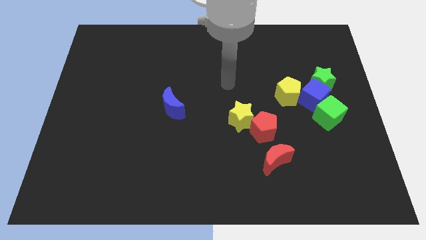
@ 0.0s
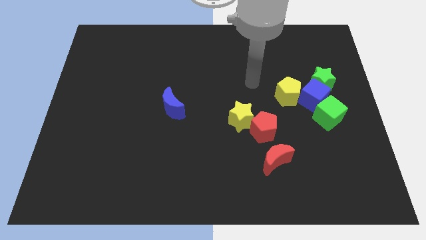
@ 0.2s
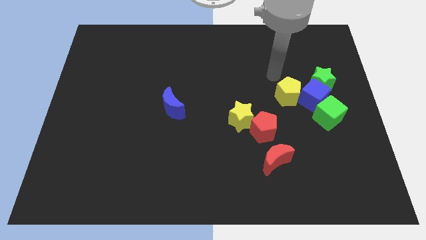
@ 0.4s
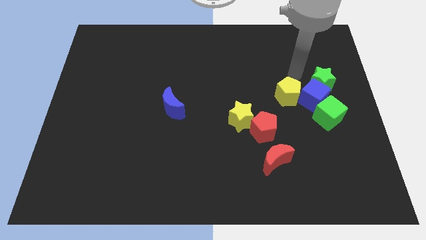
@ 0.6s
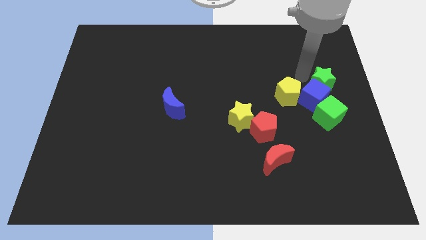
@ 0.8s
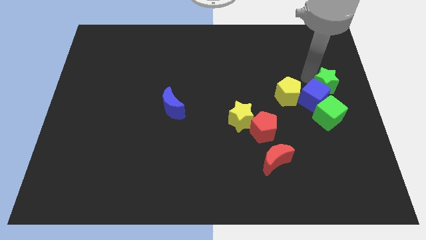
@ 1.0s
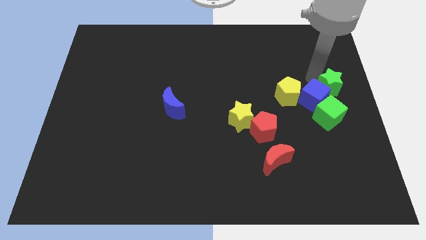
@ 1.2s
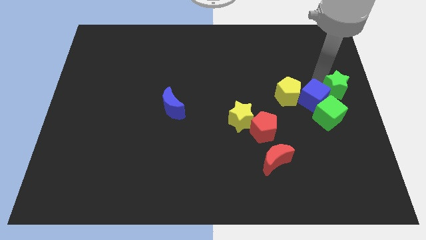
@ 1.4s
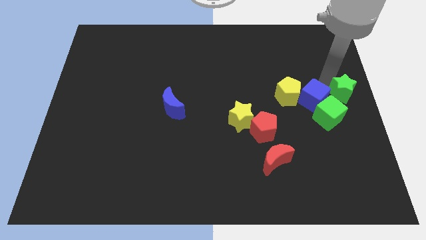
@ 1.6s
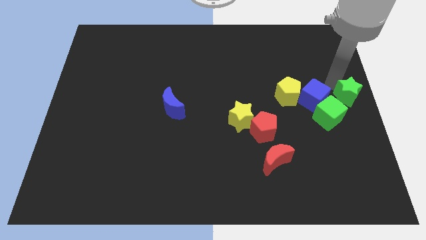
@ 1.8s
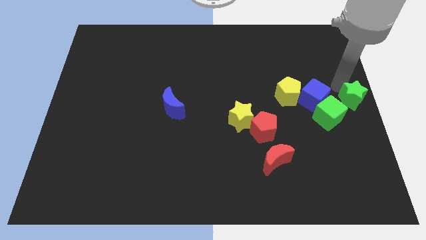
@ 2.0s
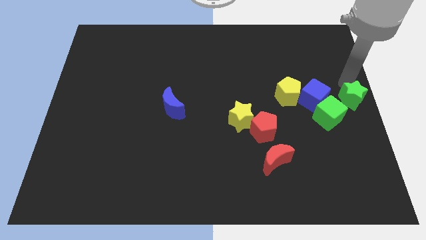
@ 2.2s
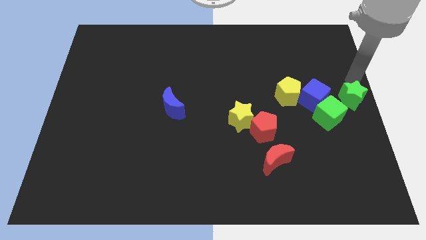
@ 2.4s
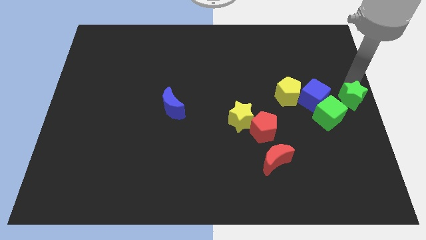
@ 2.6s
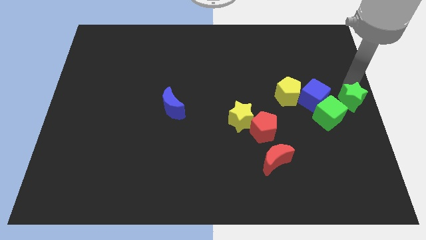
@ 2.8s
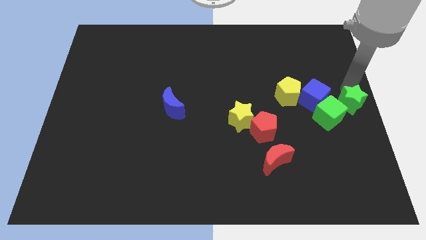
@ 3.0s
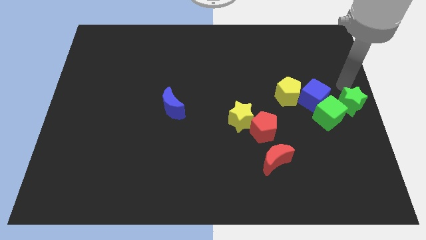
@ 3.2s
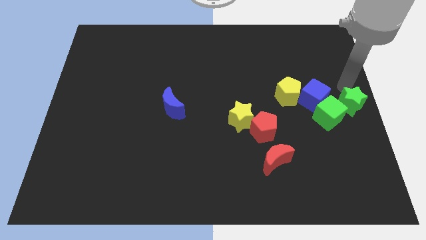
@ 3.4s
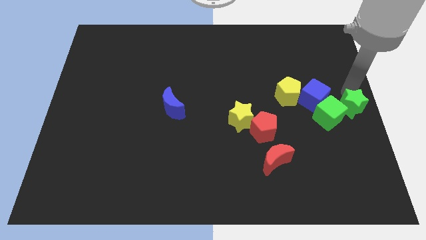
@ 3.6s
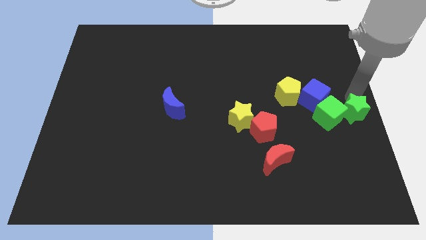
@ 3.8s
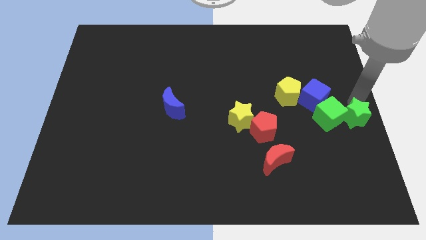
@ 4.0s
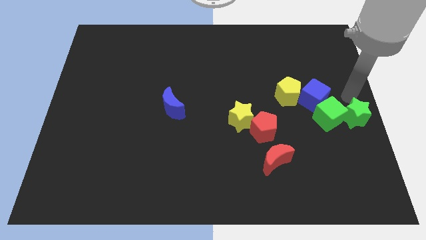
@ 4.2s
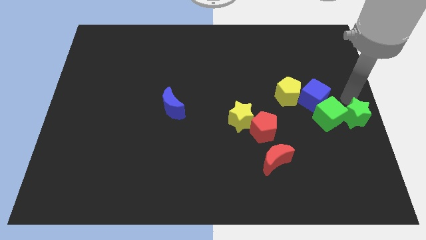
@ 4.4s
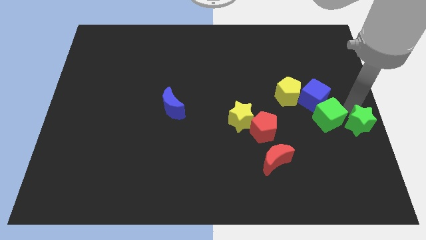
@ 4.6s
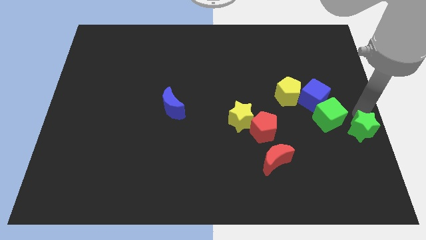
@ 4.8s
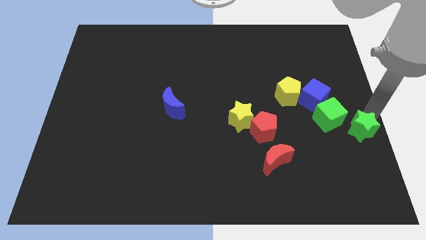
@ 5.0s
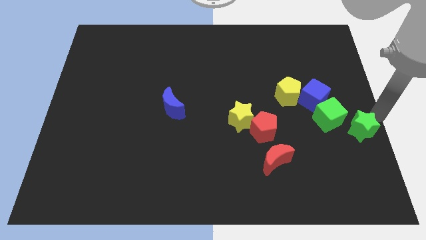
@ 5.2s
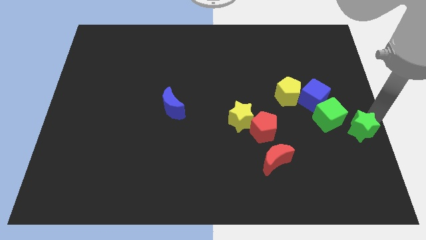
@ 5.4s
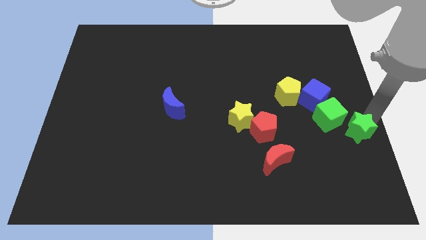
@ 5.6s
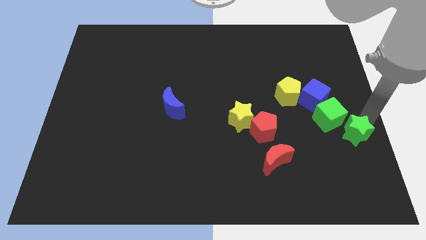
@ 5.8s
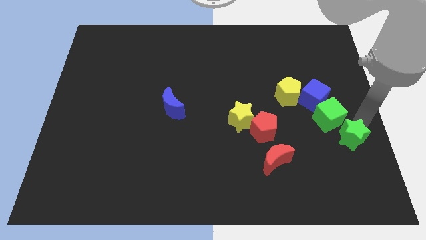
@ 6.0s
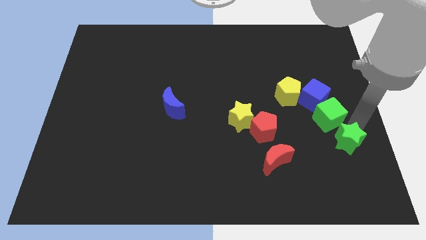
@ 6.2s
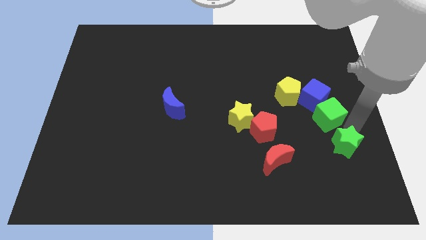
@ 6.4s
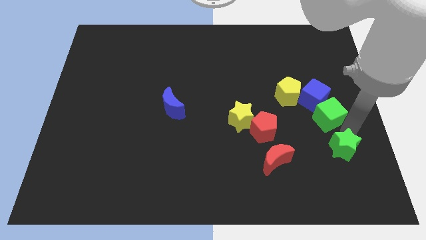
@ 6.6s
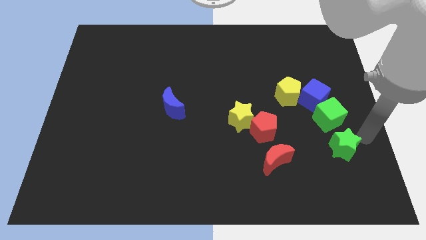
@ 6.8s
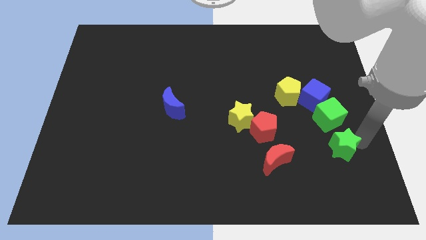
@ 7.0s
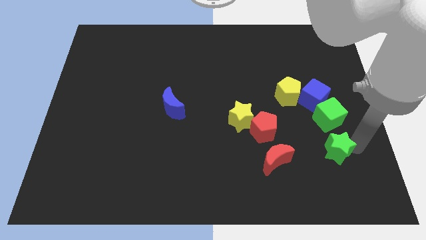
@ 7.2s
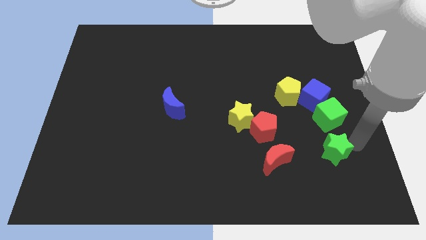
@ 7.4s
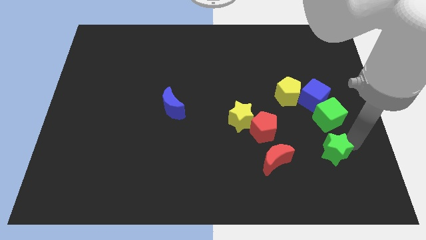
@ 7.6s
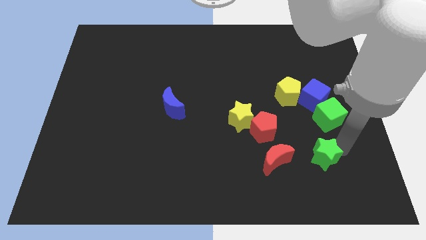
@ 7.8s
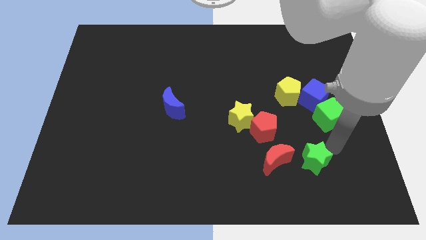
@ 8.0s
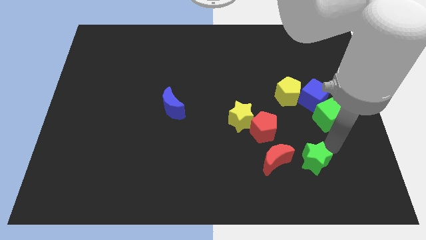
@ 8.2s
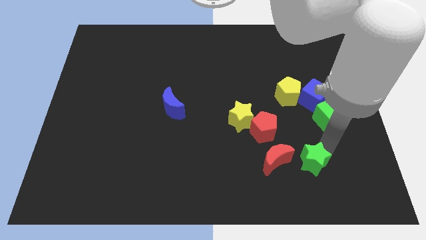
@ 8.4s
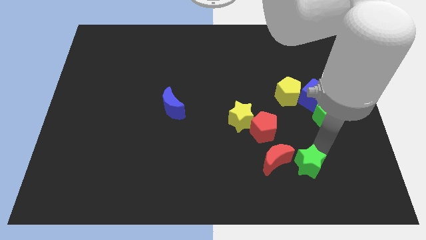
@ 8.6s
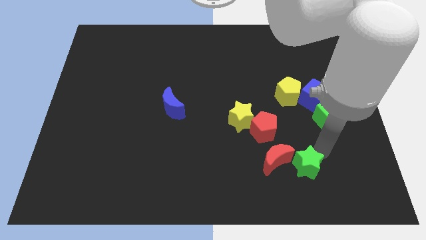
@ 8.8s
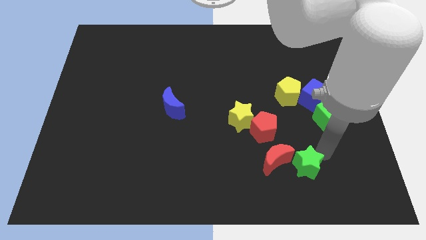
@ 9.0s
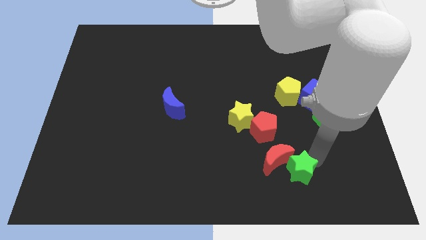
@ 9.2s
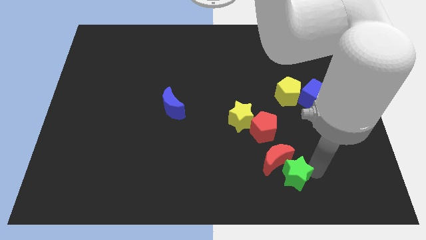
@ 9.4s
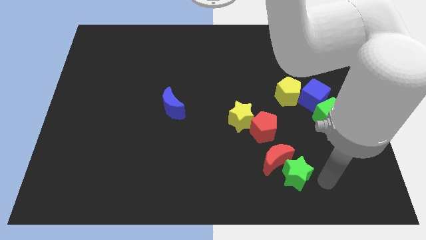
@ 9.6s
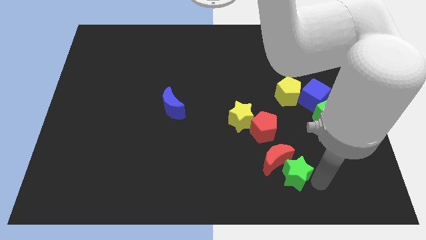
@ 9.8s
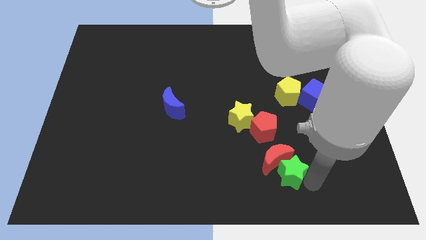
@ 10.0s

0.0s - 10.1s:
push the green star to the bottom side of the red pentagon

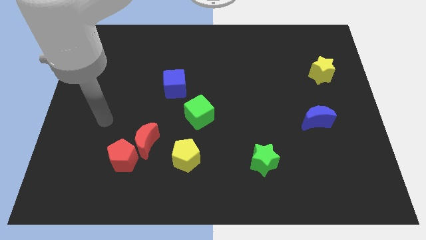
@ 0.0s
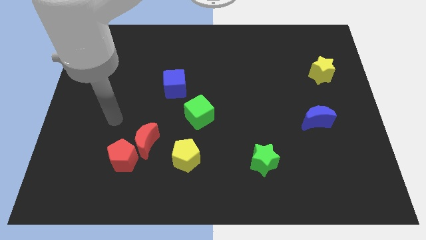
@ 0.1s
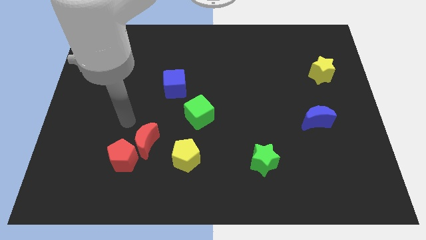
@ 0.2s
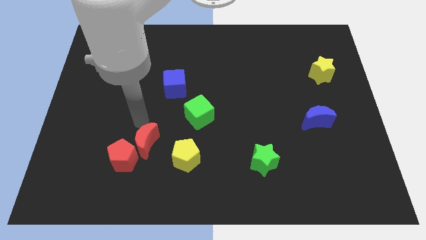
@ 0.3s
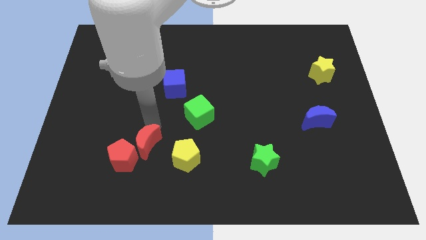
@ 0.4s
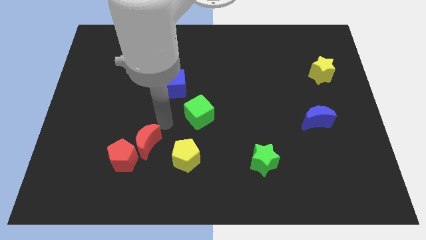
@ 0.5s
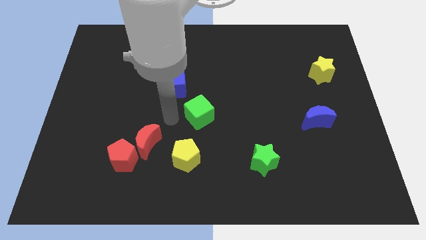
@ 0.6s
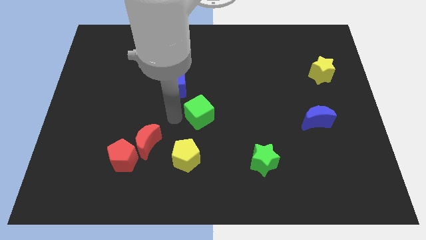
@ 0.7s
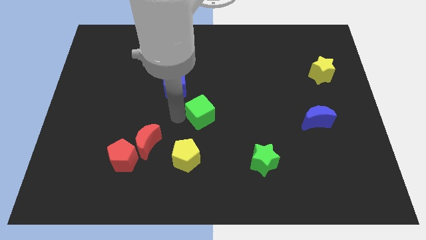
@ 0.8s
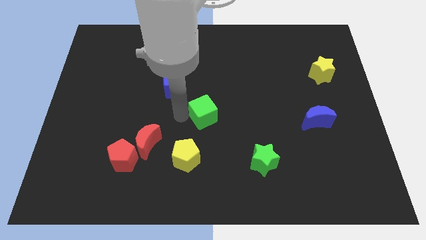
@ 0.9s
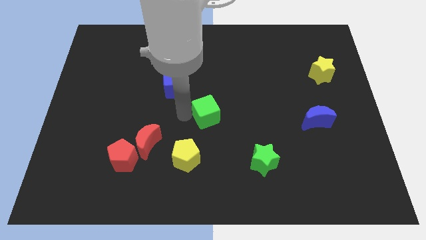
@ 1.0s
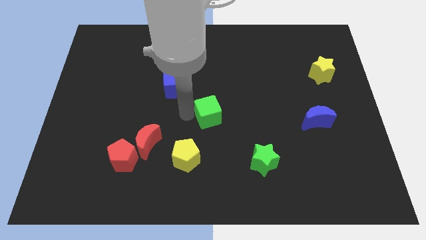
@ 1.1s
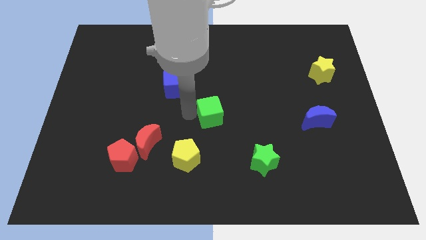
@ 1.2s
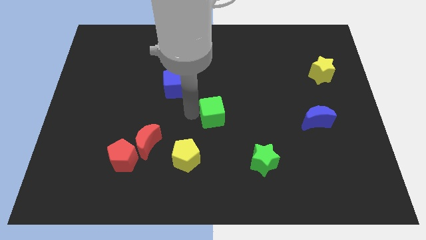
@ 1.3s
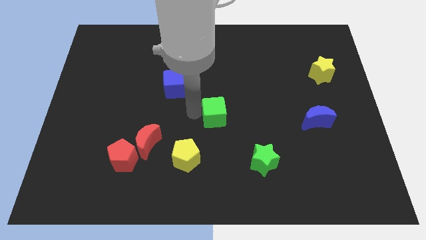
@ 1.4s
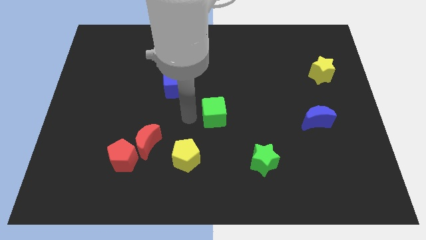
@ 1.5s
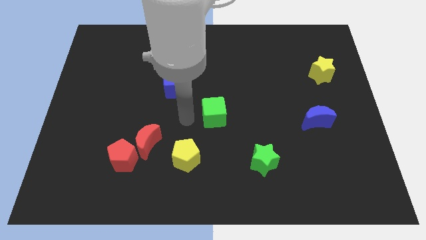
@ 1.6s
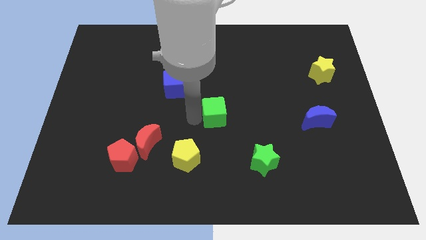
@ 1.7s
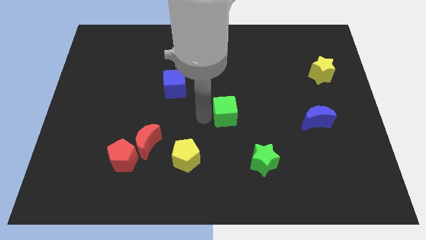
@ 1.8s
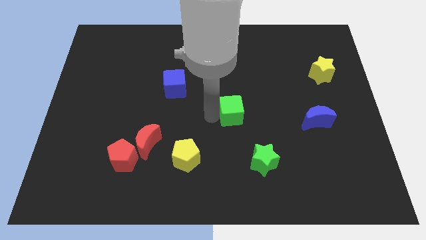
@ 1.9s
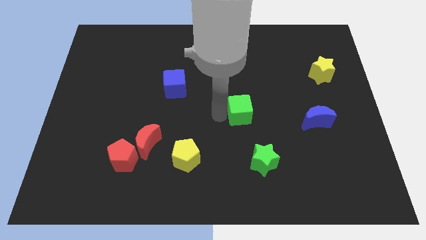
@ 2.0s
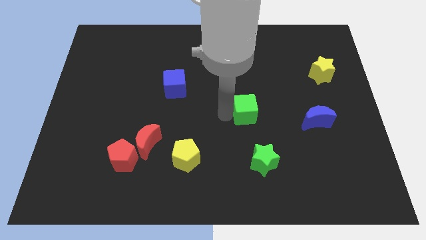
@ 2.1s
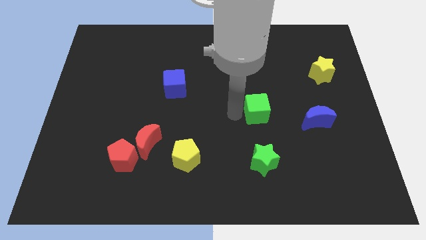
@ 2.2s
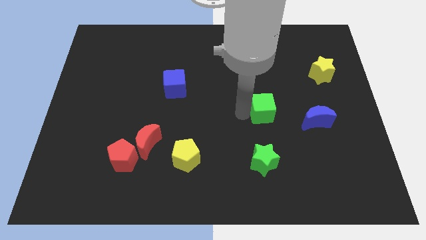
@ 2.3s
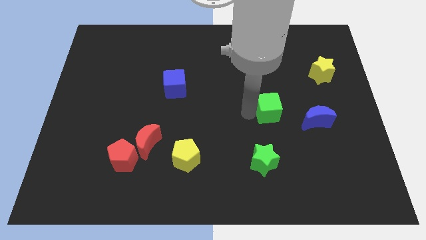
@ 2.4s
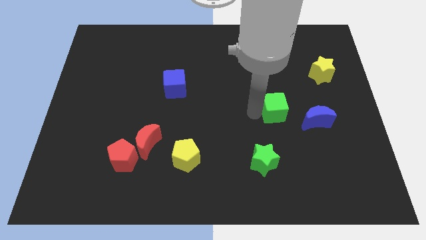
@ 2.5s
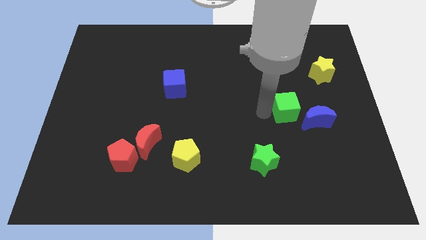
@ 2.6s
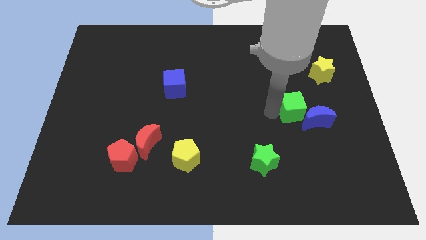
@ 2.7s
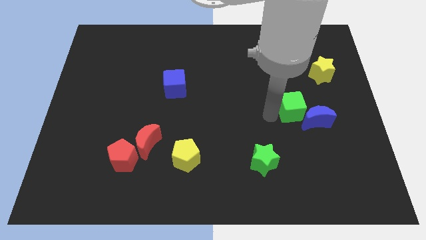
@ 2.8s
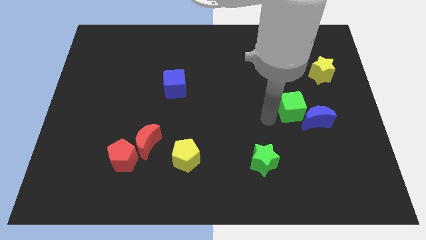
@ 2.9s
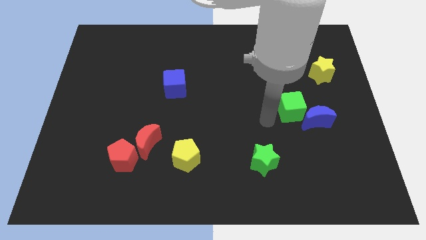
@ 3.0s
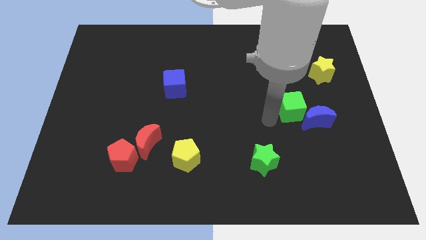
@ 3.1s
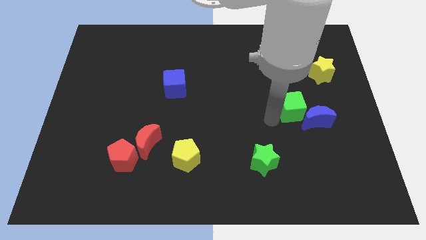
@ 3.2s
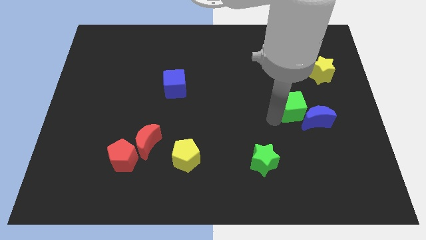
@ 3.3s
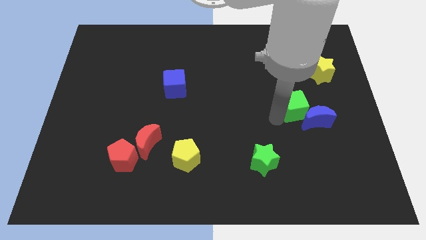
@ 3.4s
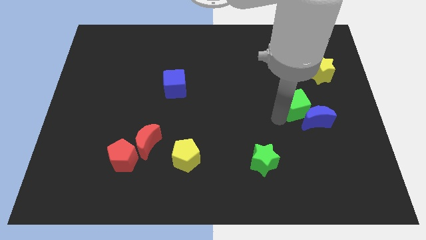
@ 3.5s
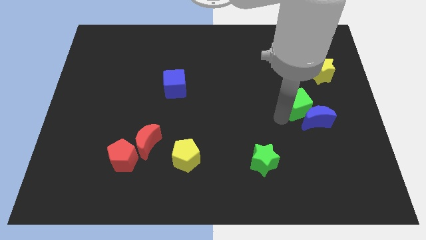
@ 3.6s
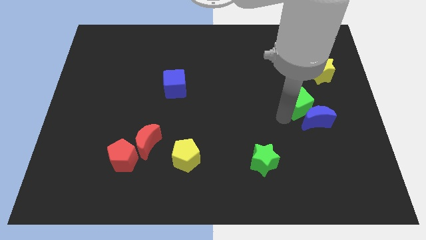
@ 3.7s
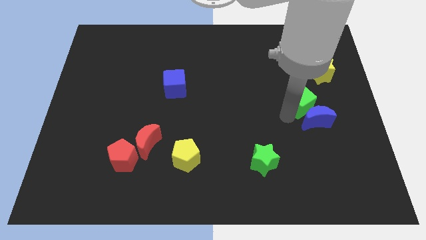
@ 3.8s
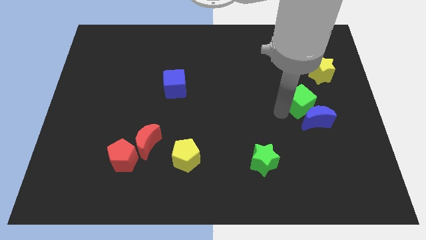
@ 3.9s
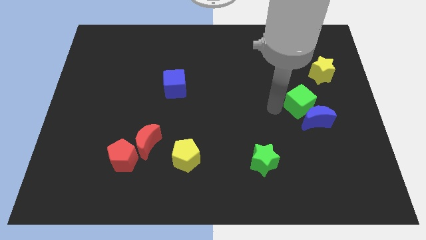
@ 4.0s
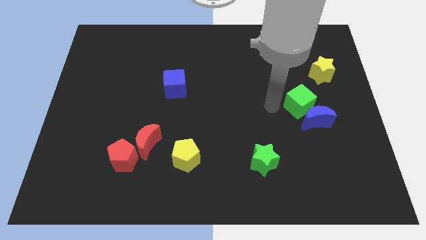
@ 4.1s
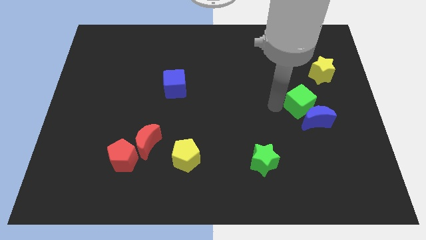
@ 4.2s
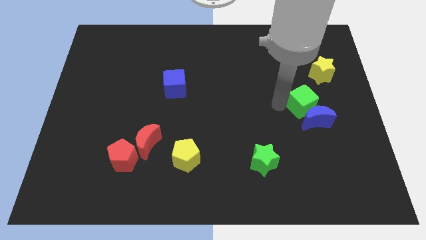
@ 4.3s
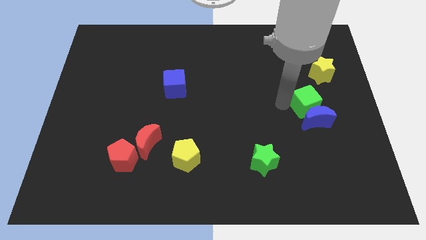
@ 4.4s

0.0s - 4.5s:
slide the green cube to the top right side of the blue moon
